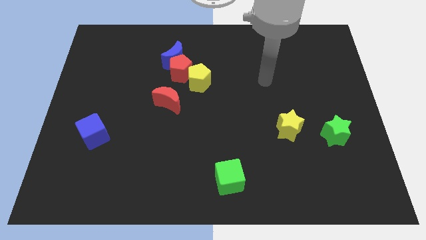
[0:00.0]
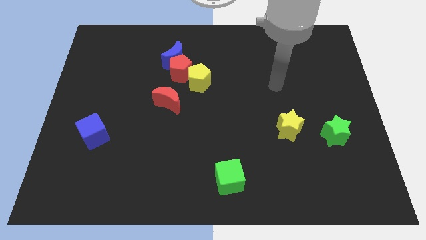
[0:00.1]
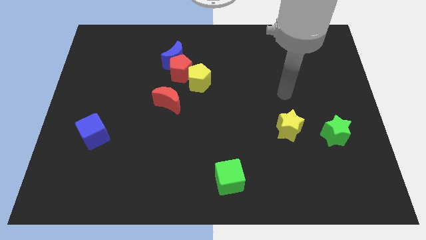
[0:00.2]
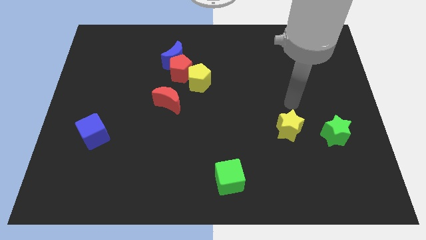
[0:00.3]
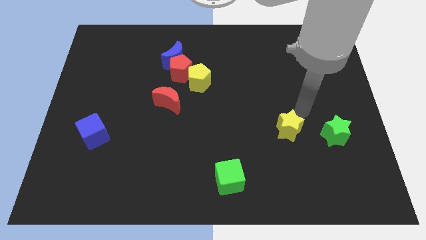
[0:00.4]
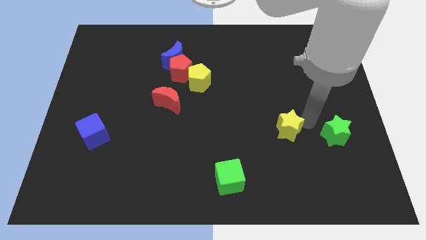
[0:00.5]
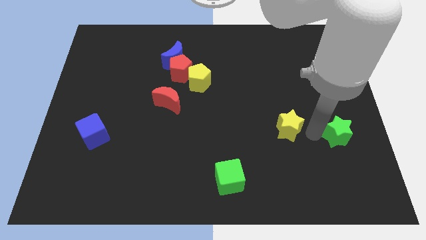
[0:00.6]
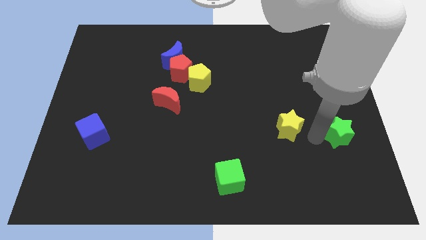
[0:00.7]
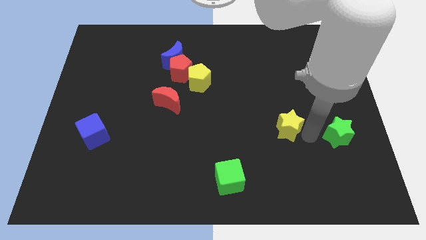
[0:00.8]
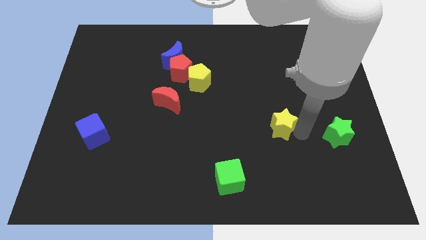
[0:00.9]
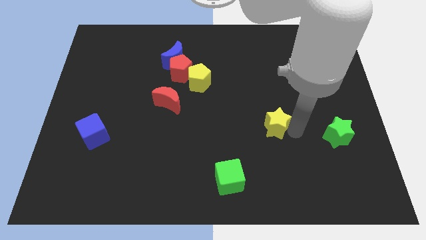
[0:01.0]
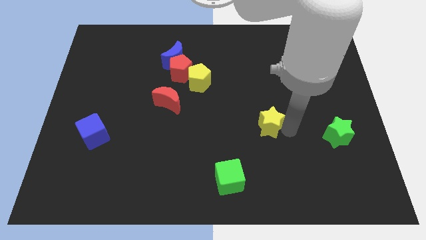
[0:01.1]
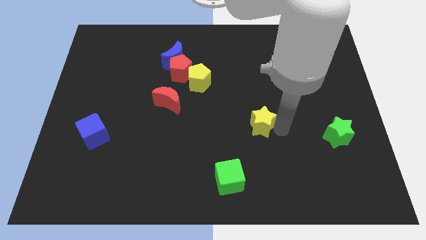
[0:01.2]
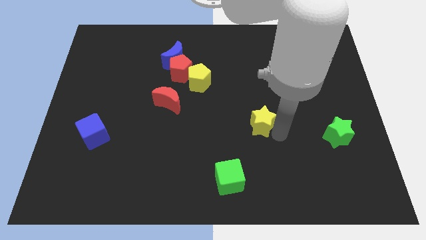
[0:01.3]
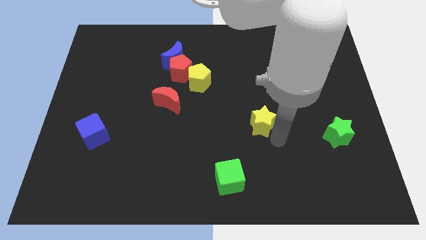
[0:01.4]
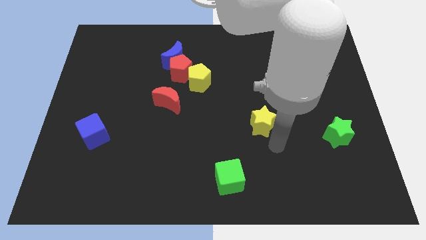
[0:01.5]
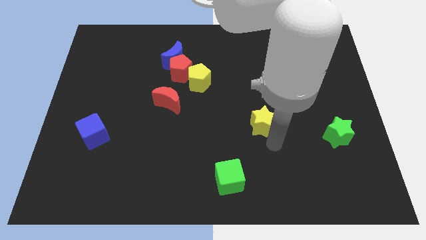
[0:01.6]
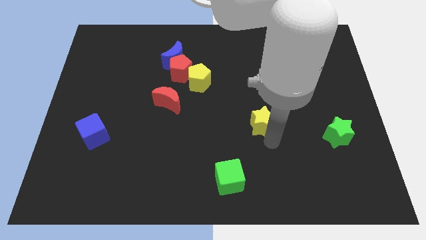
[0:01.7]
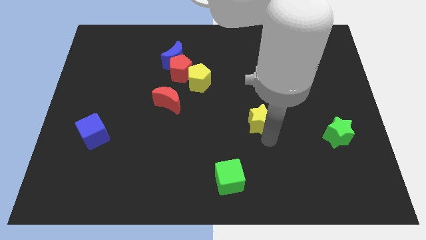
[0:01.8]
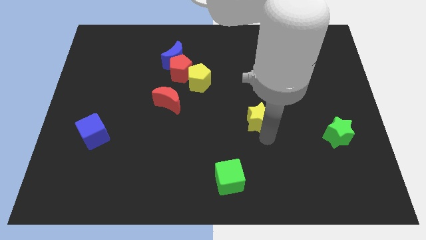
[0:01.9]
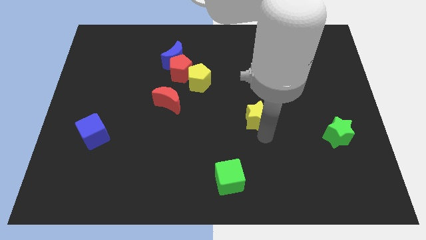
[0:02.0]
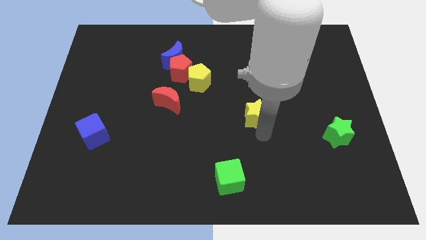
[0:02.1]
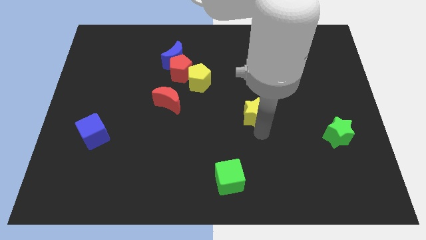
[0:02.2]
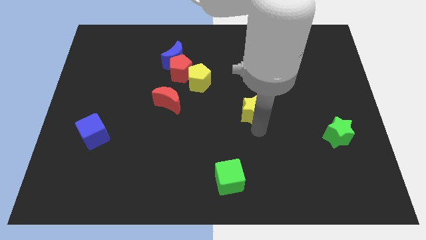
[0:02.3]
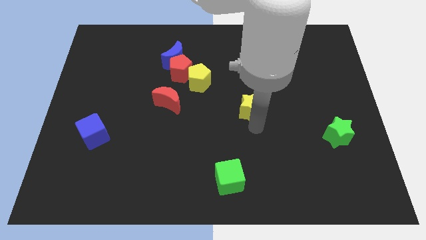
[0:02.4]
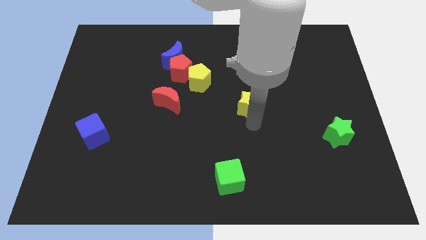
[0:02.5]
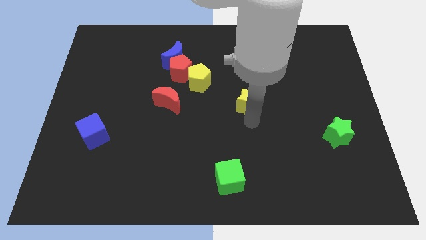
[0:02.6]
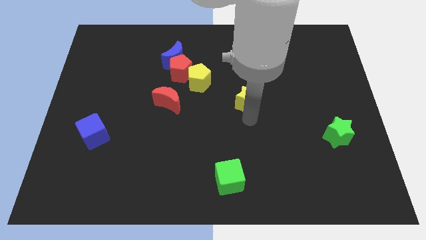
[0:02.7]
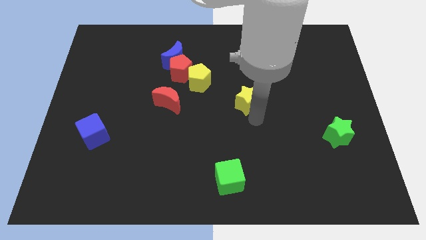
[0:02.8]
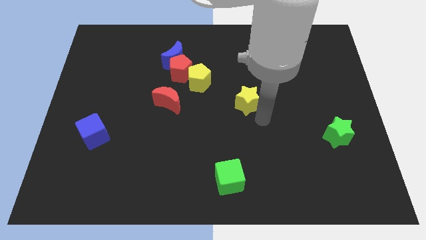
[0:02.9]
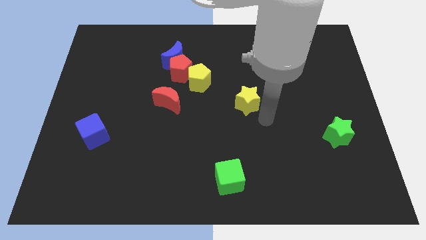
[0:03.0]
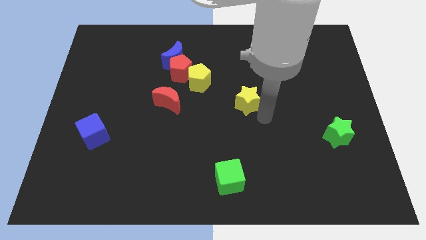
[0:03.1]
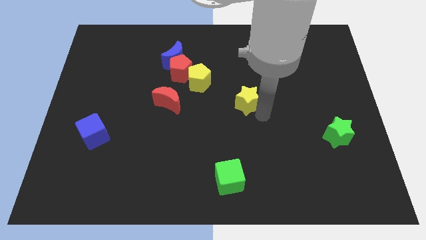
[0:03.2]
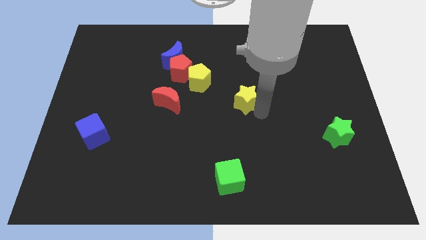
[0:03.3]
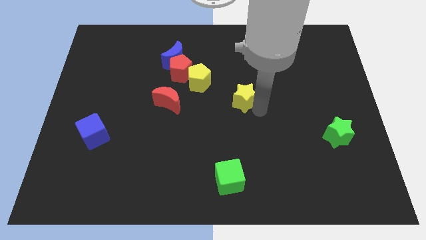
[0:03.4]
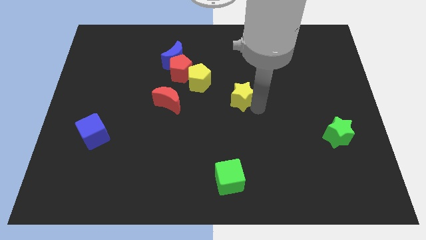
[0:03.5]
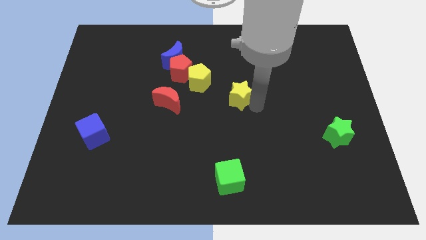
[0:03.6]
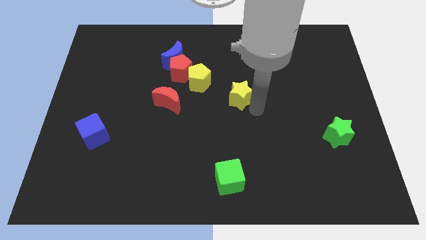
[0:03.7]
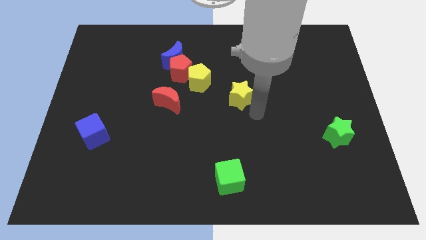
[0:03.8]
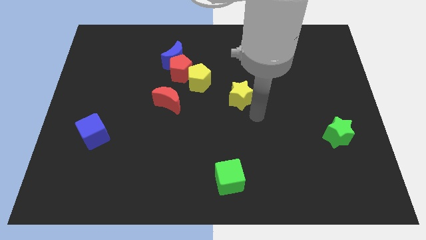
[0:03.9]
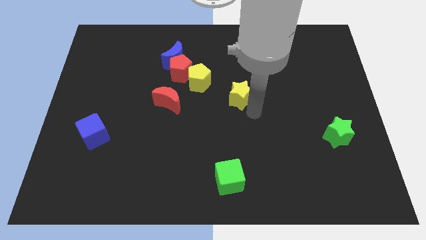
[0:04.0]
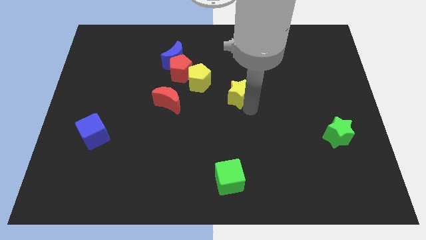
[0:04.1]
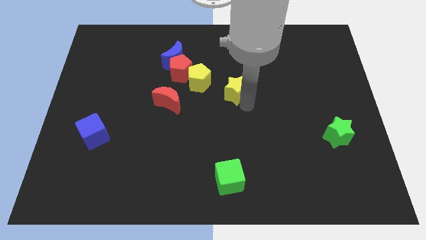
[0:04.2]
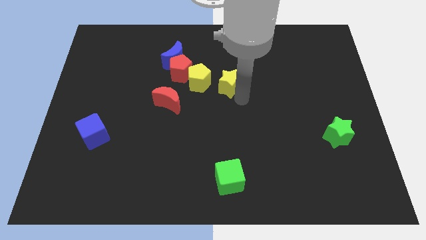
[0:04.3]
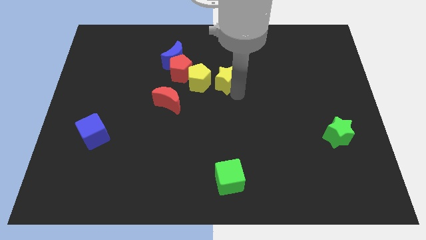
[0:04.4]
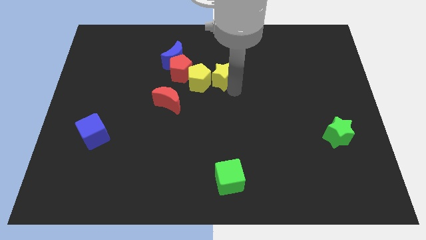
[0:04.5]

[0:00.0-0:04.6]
push the yellow star upwards and then left

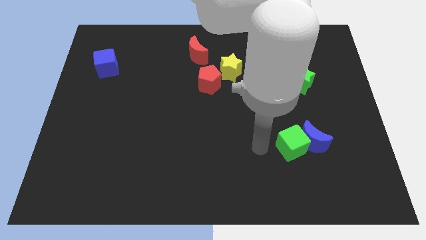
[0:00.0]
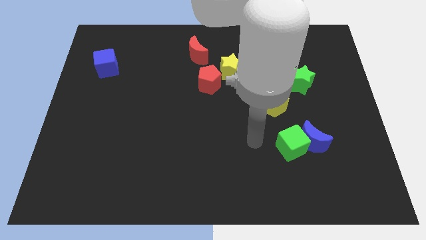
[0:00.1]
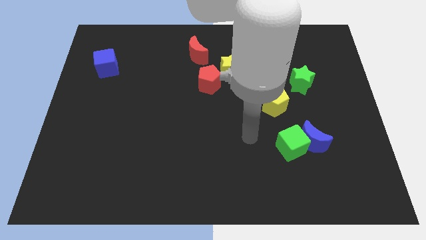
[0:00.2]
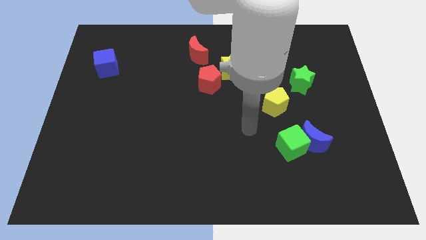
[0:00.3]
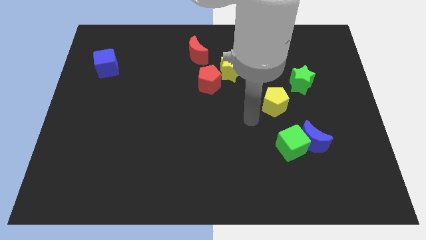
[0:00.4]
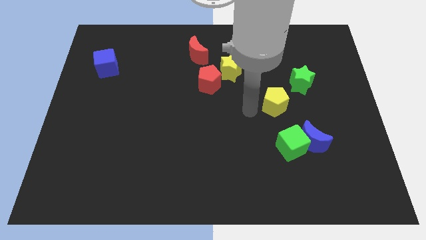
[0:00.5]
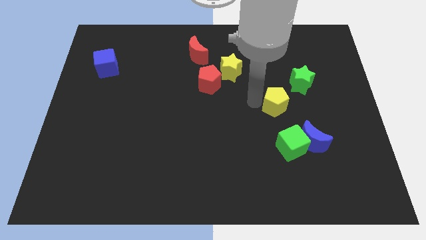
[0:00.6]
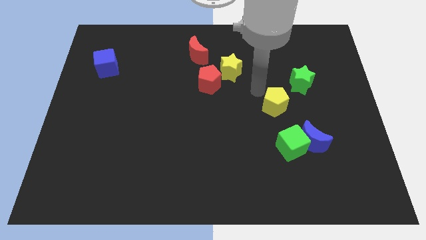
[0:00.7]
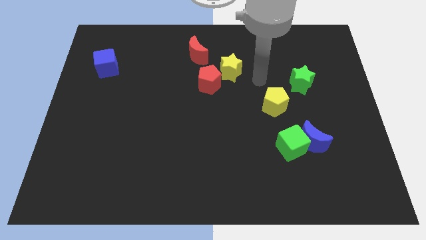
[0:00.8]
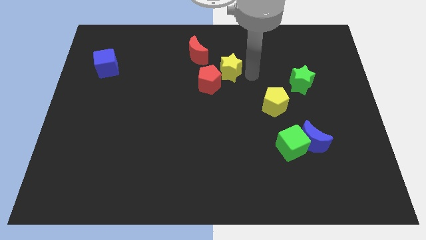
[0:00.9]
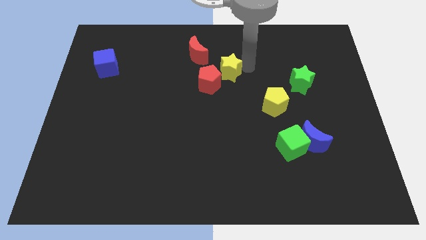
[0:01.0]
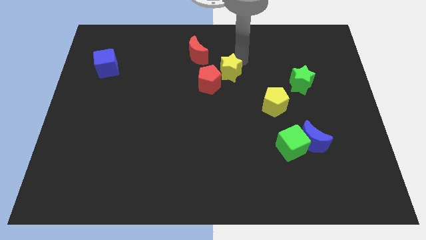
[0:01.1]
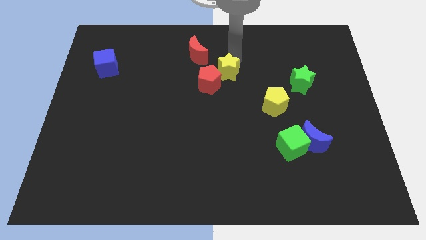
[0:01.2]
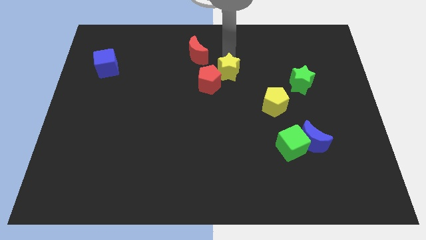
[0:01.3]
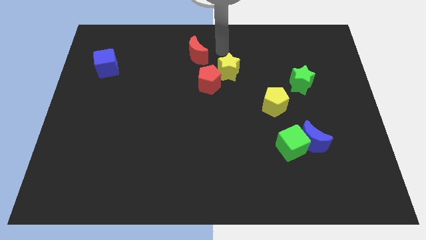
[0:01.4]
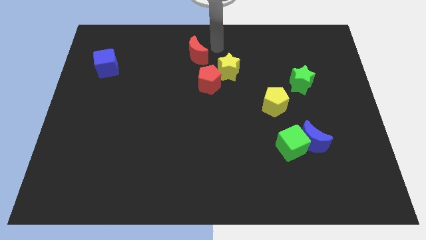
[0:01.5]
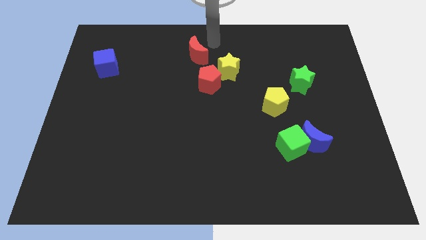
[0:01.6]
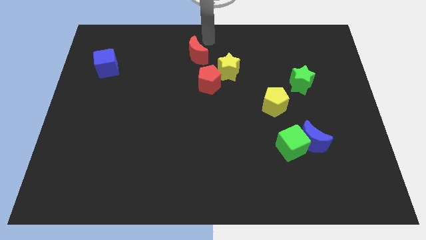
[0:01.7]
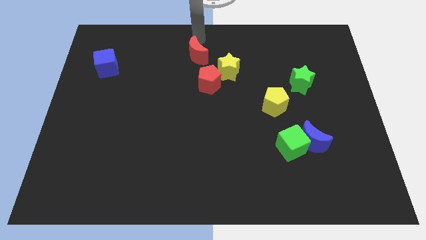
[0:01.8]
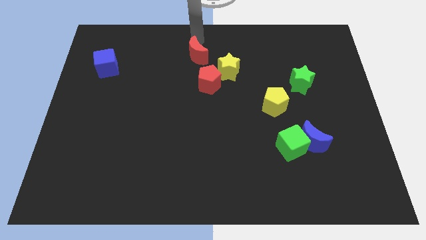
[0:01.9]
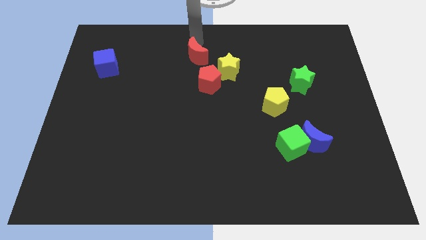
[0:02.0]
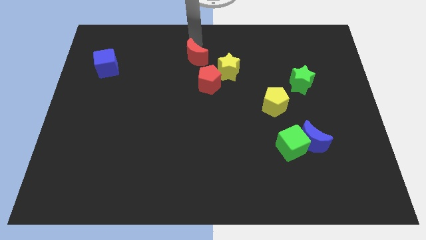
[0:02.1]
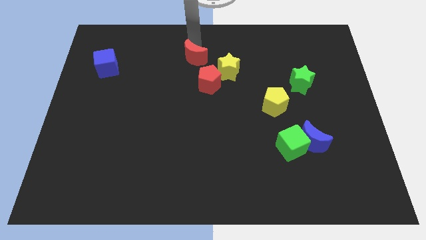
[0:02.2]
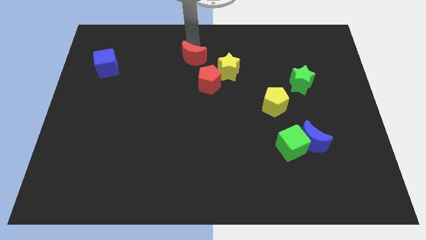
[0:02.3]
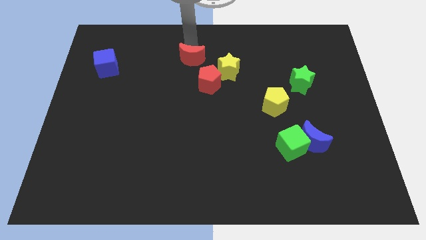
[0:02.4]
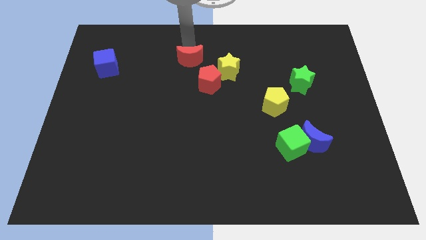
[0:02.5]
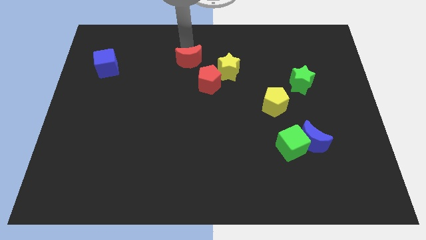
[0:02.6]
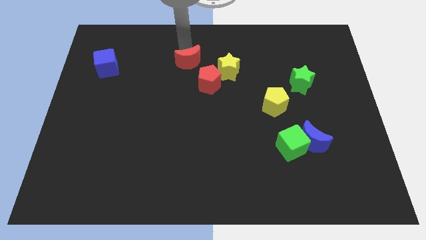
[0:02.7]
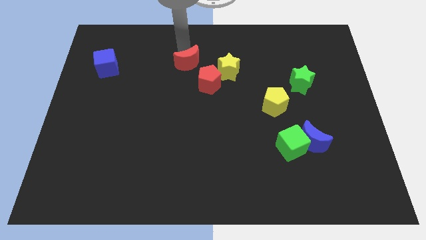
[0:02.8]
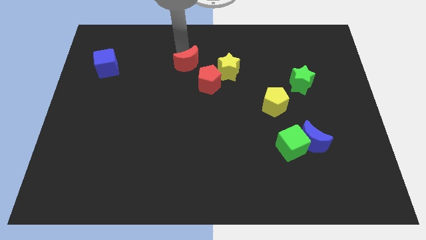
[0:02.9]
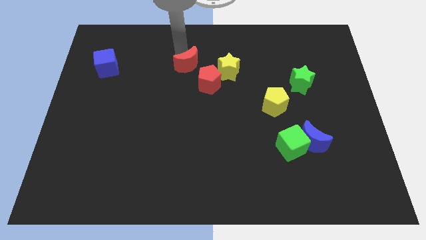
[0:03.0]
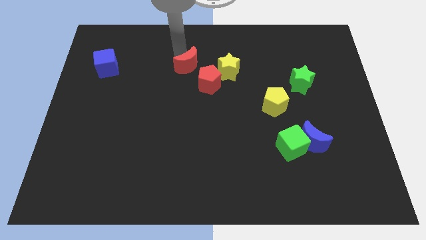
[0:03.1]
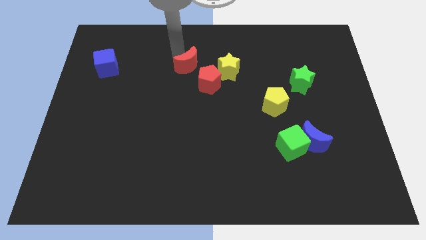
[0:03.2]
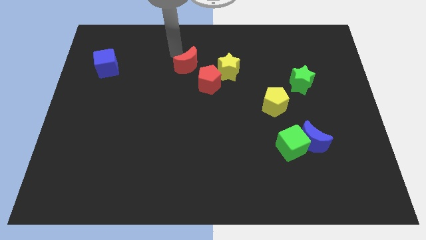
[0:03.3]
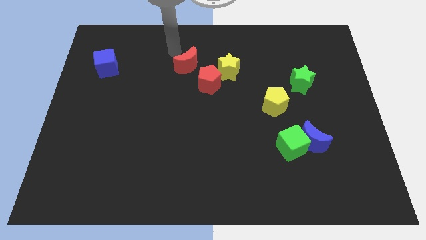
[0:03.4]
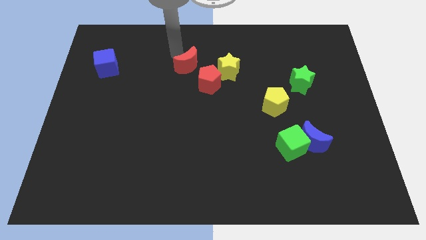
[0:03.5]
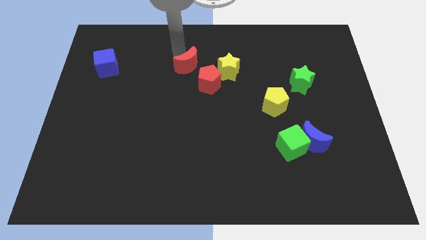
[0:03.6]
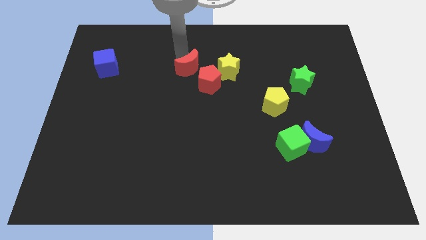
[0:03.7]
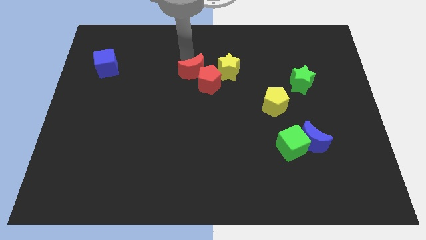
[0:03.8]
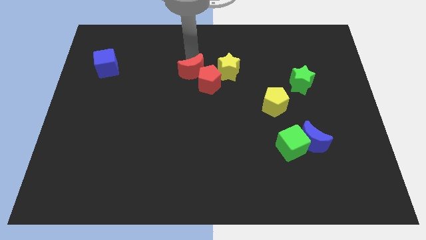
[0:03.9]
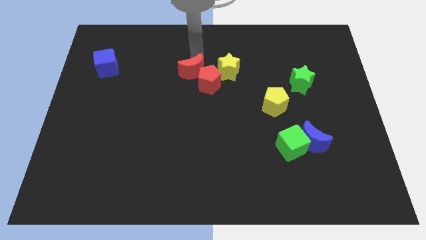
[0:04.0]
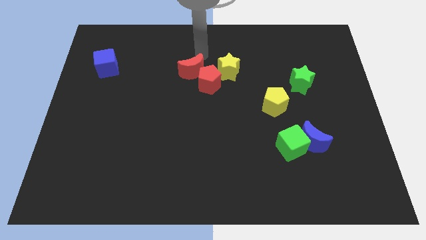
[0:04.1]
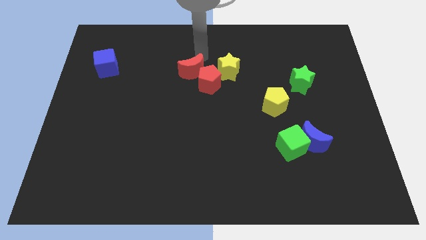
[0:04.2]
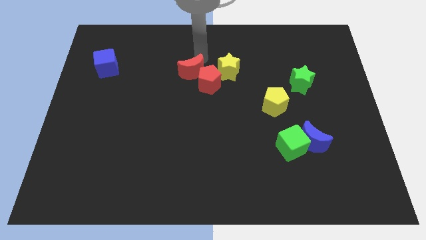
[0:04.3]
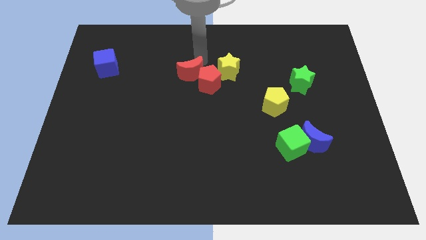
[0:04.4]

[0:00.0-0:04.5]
push the red moon down a little bit
